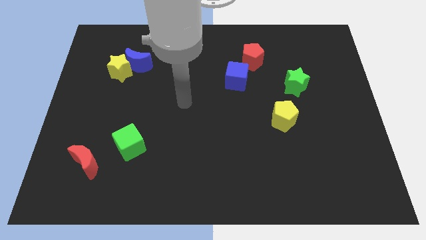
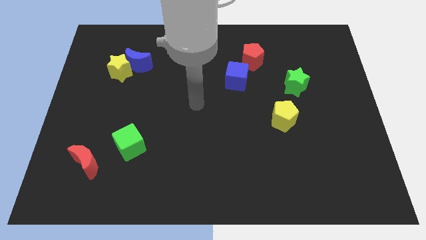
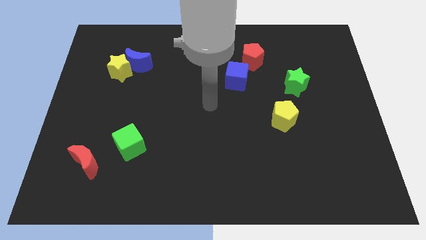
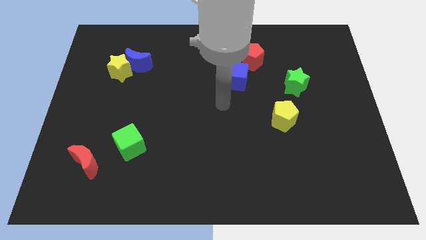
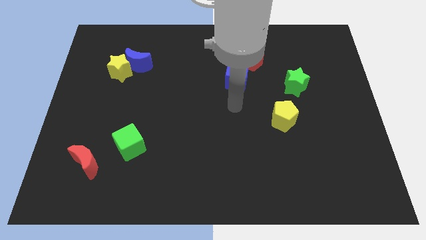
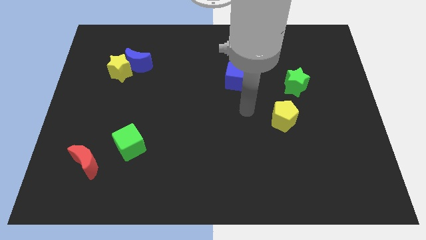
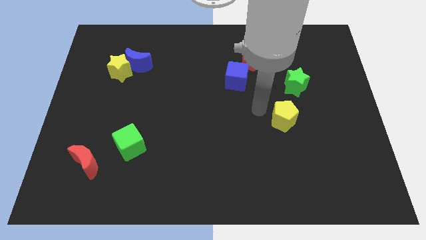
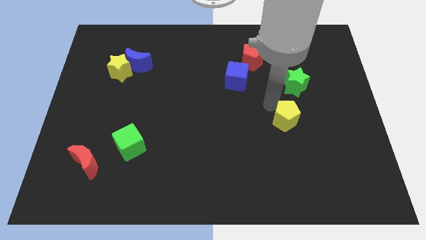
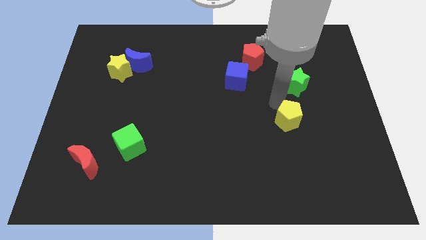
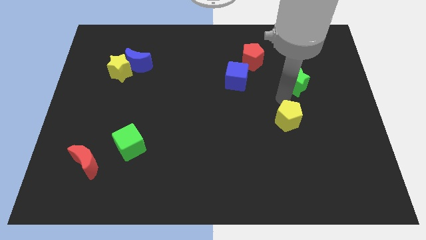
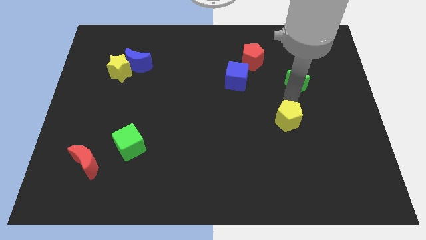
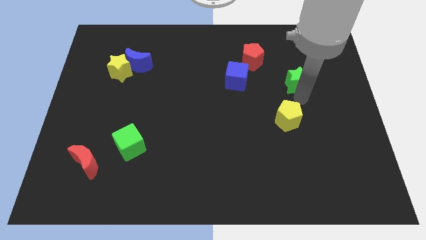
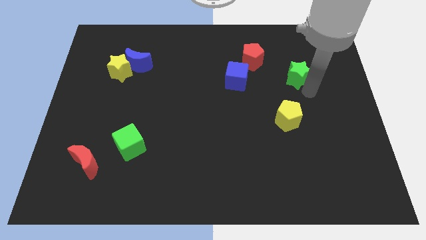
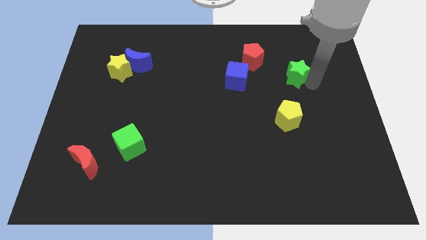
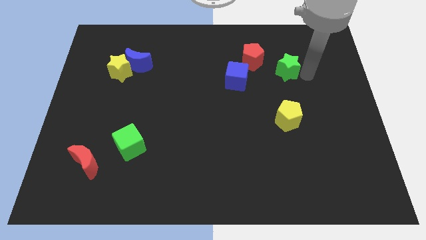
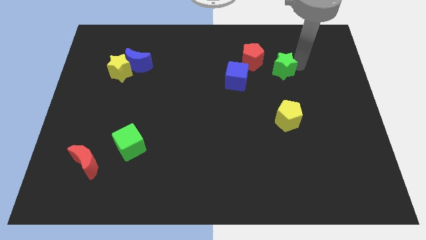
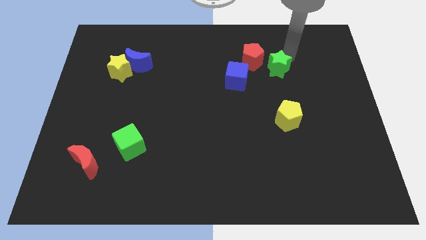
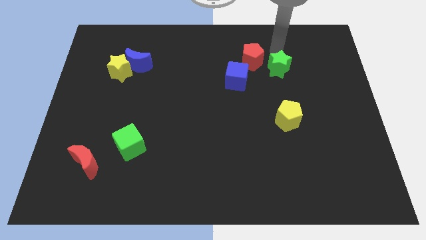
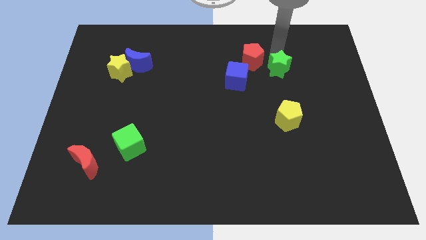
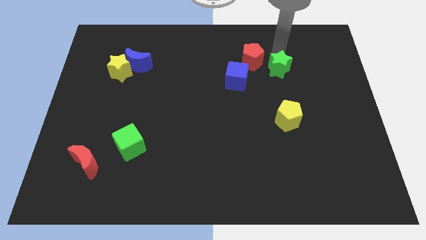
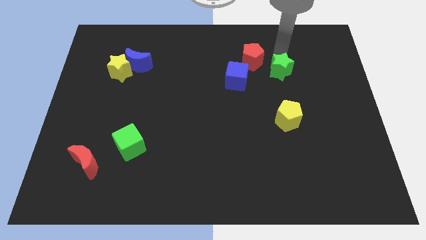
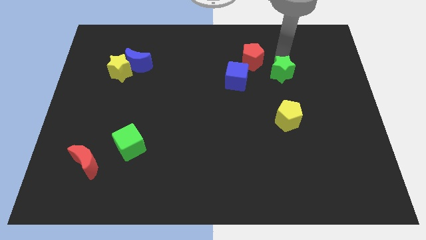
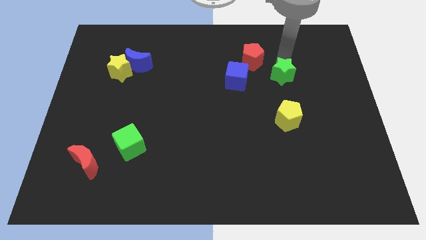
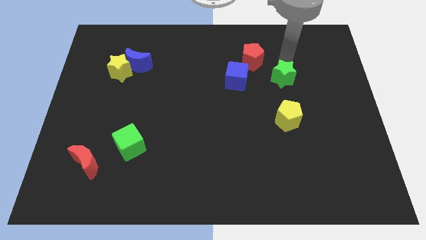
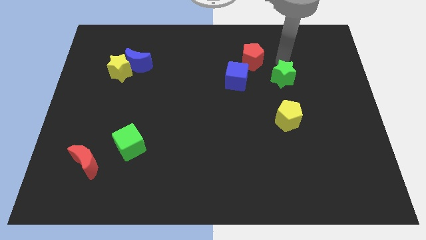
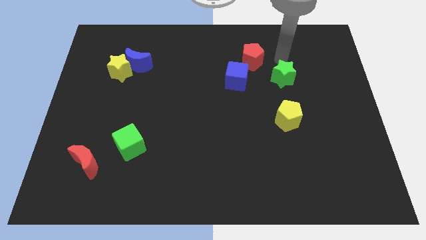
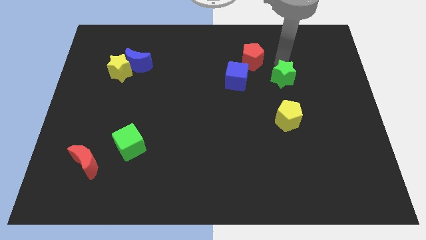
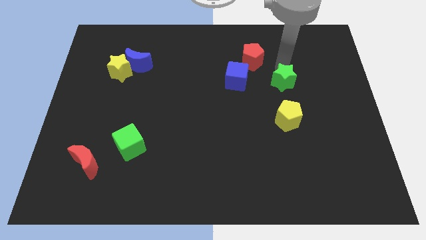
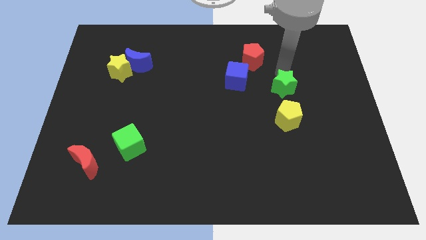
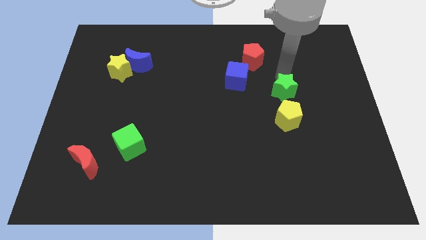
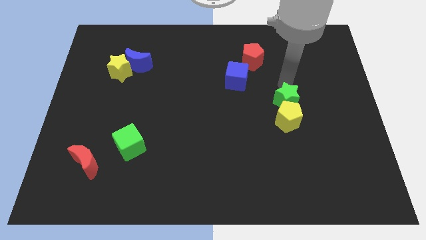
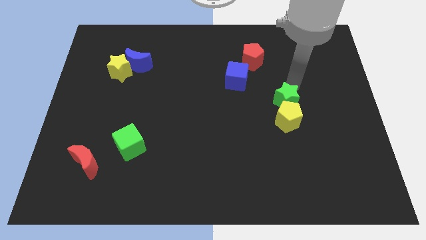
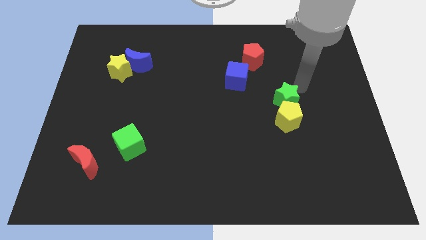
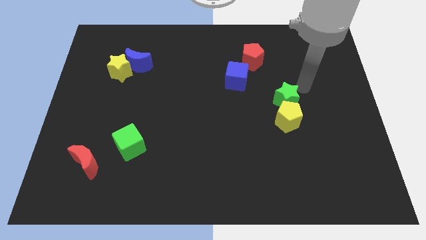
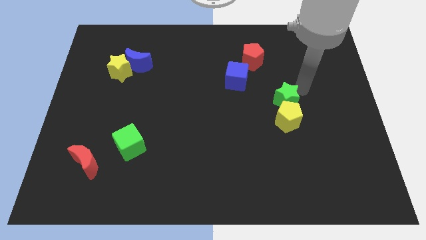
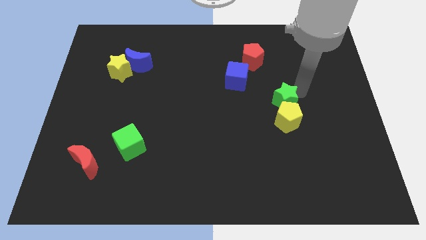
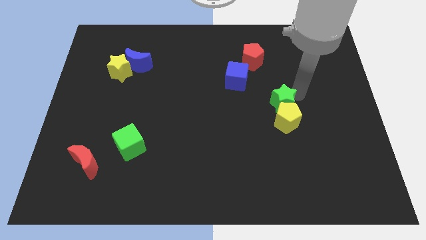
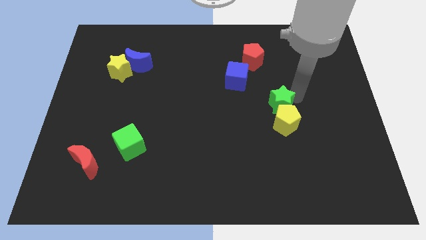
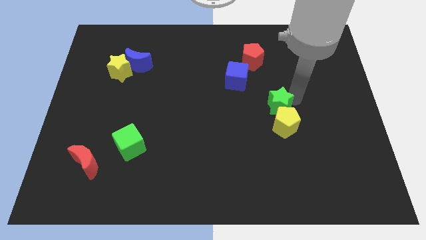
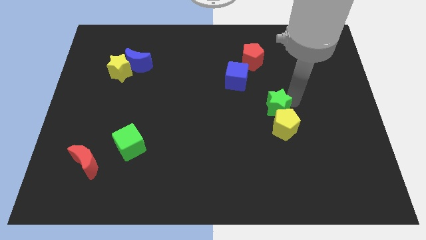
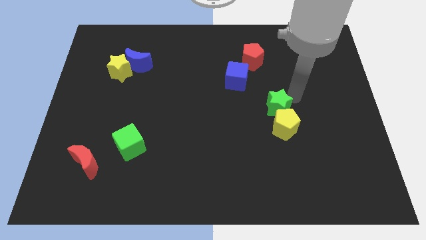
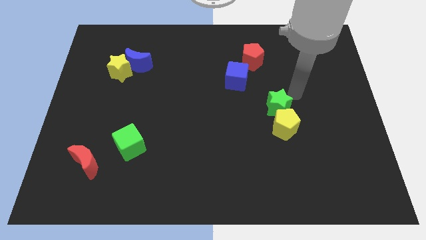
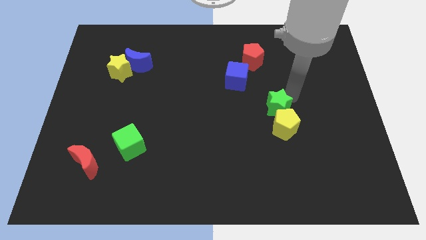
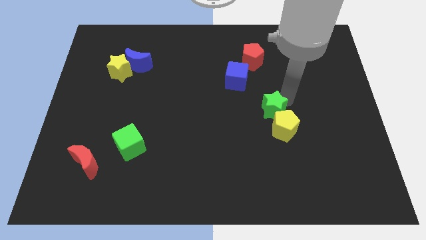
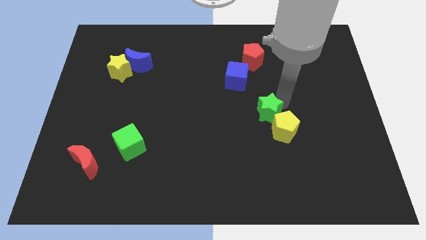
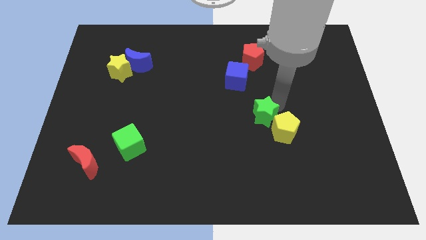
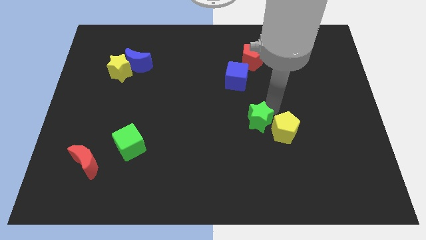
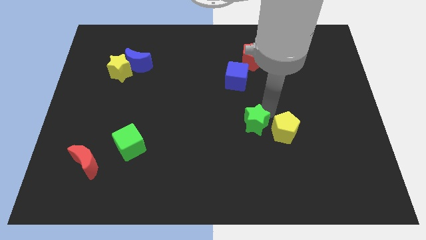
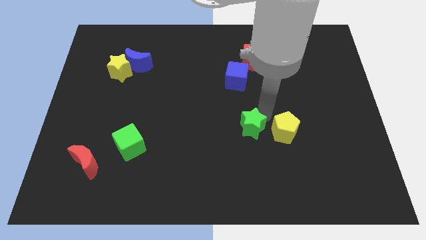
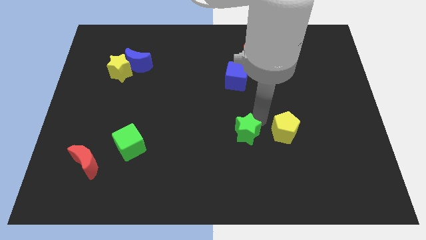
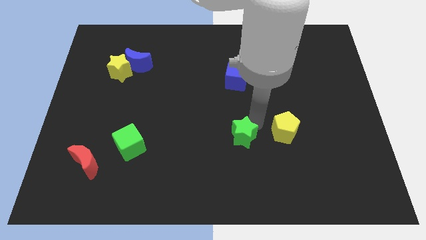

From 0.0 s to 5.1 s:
push the green star down and left diagonally

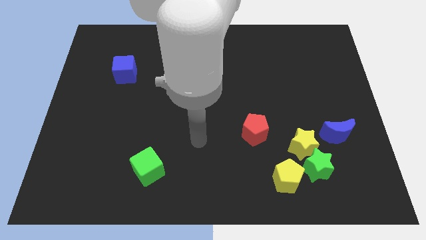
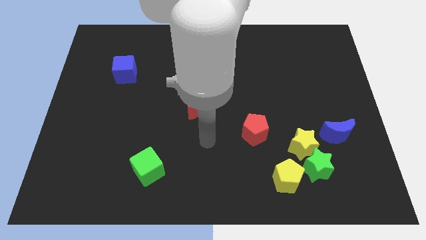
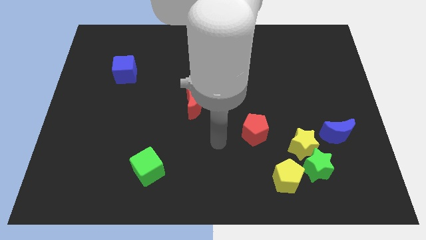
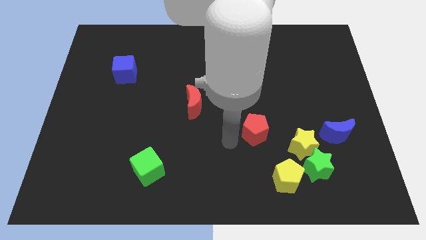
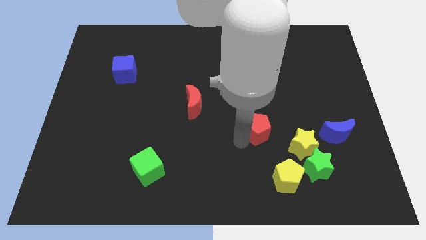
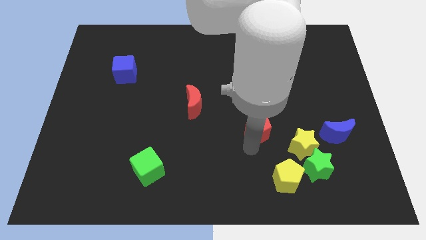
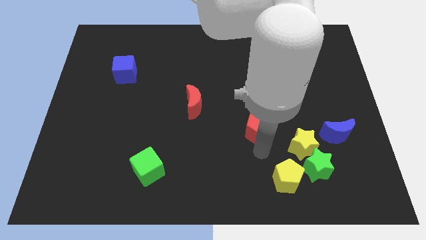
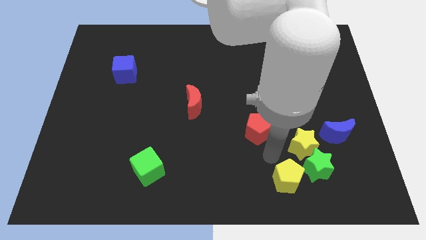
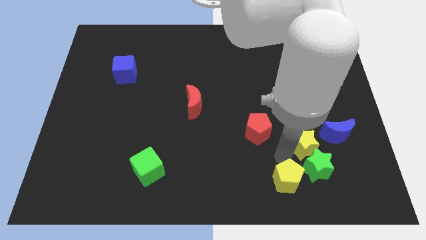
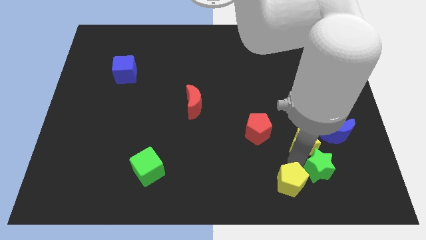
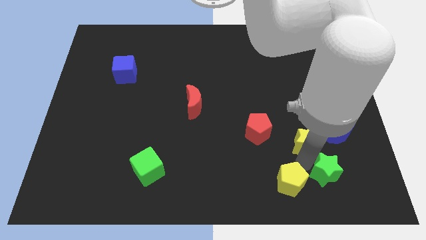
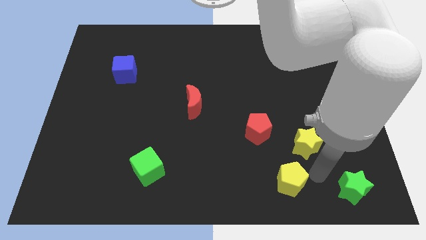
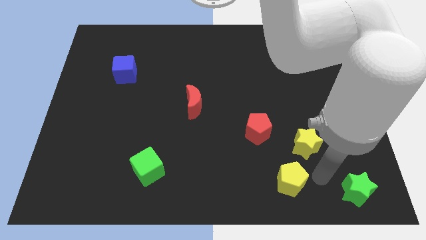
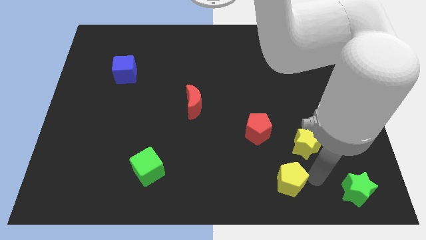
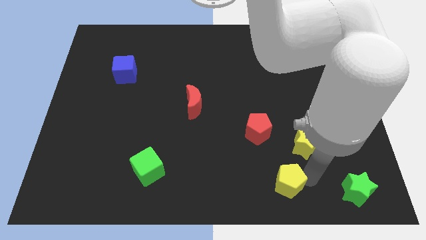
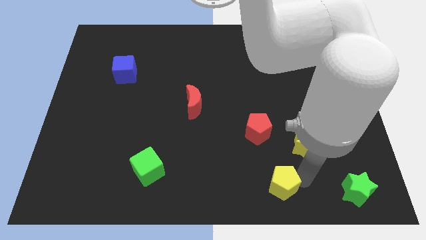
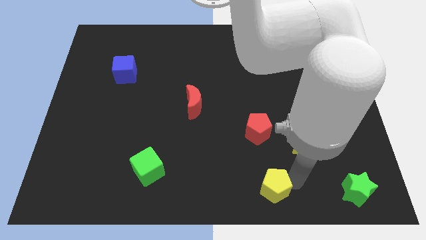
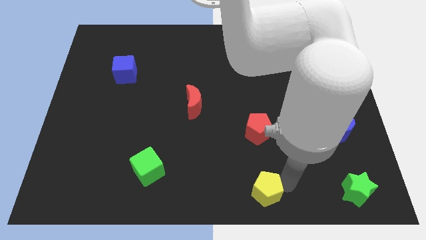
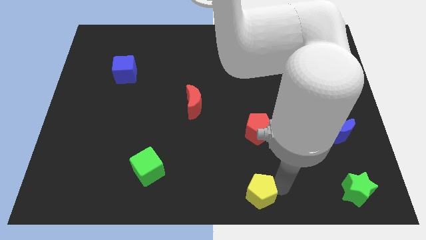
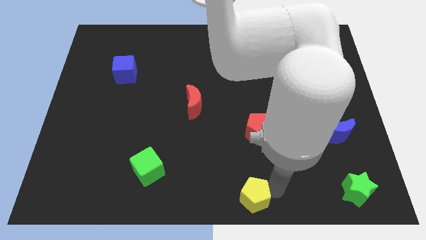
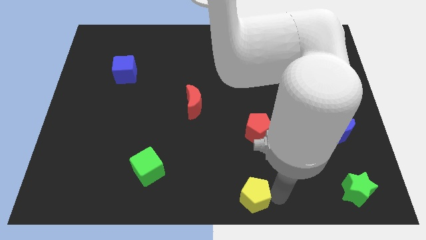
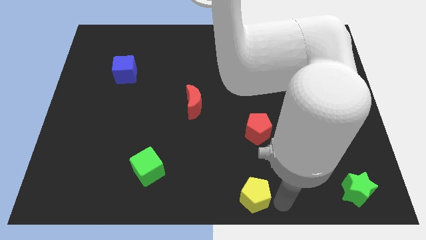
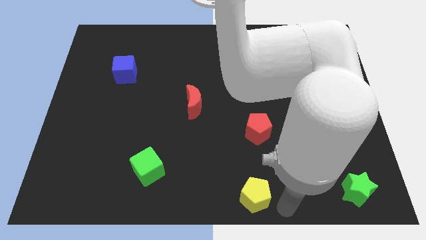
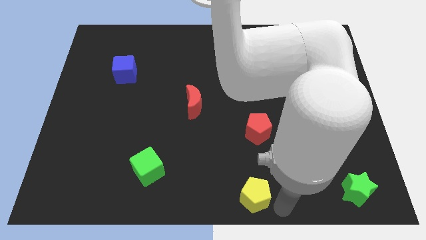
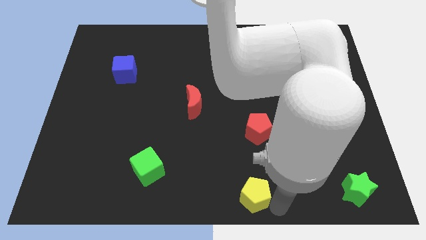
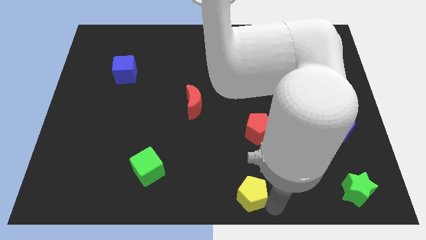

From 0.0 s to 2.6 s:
push the yellow pentagon slightly to the left

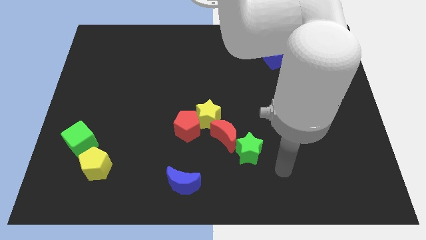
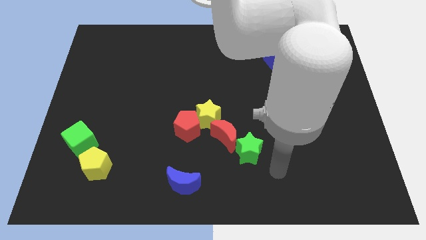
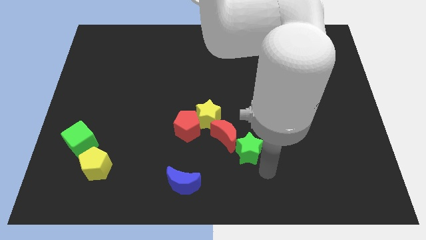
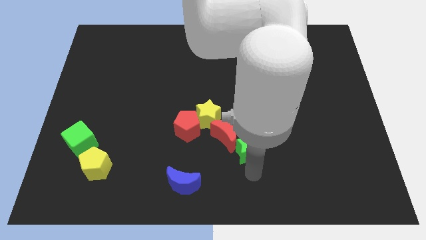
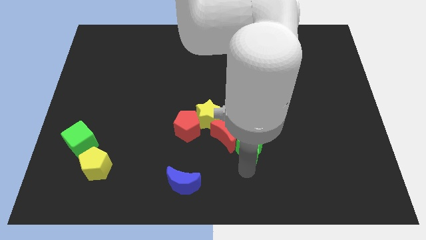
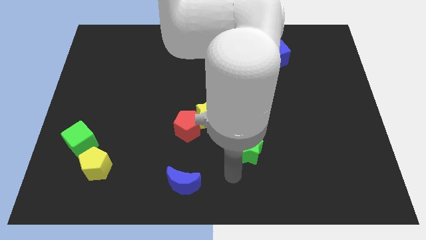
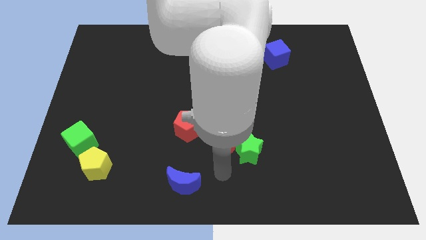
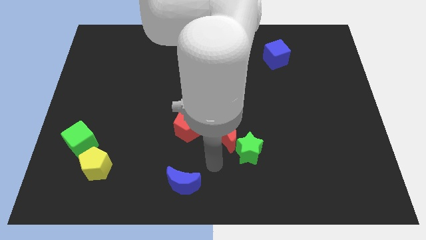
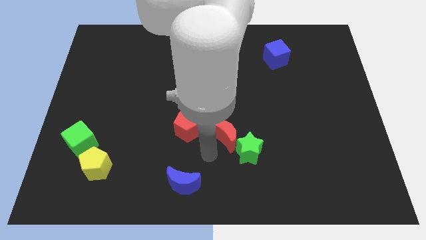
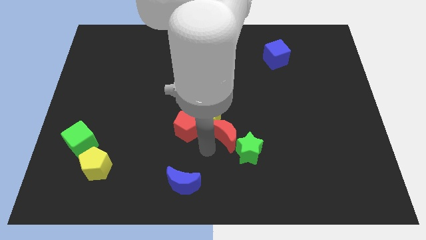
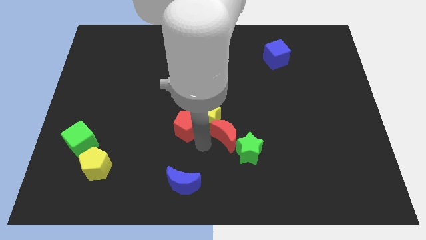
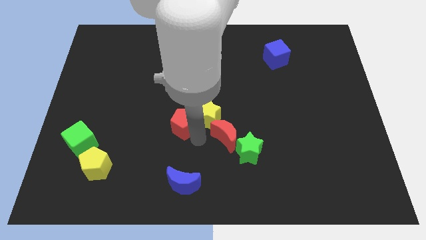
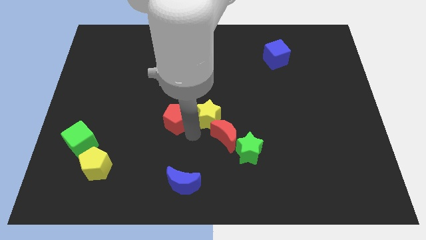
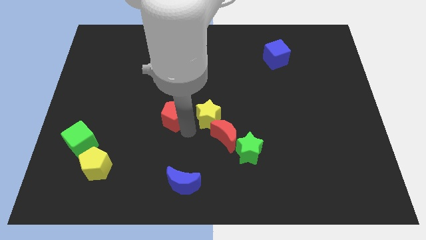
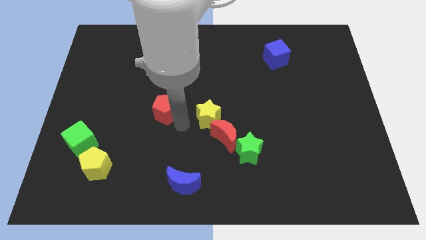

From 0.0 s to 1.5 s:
push the red pentagon up and left diagonally a little bit
